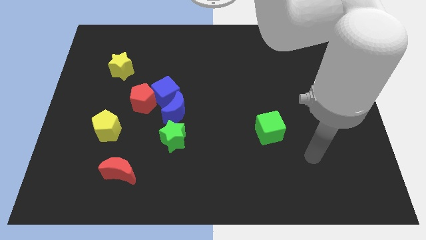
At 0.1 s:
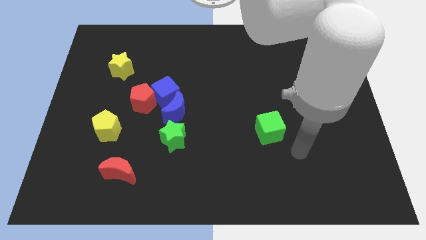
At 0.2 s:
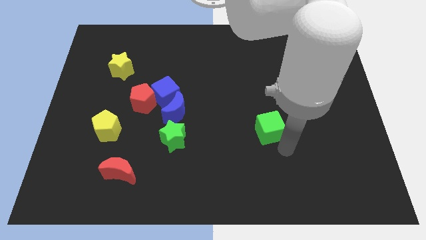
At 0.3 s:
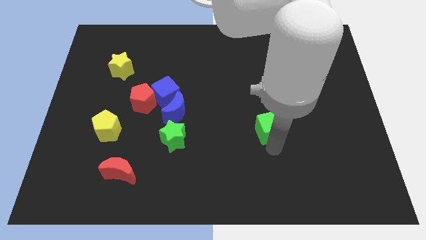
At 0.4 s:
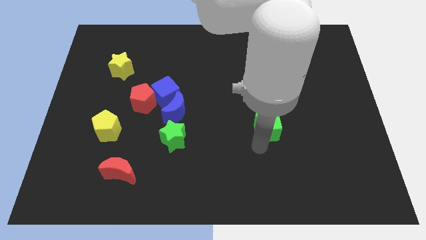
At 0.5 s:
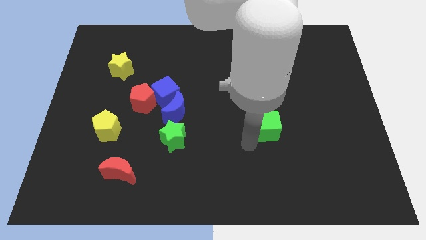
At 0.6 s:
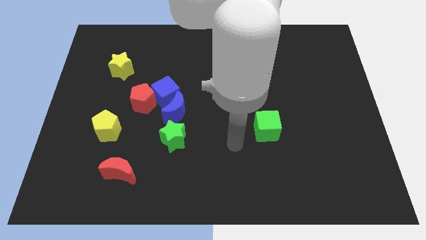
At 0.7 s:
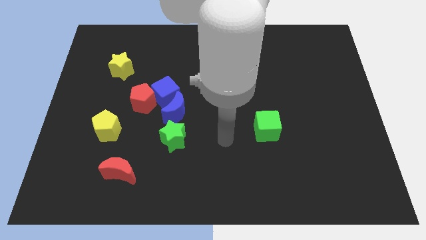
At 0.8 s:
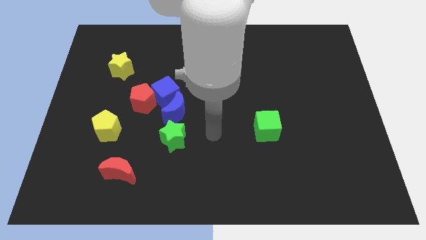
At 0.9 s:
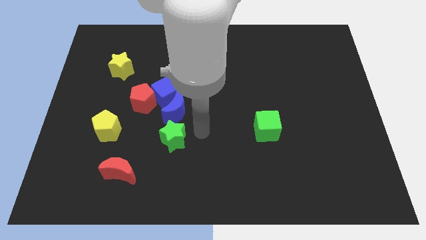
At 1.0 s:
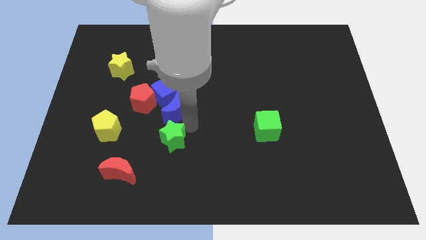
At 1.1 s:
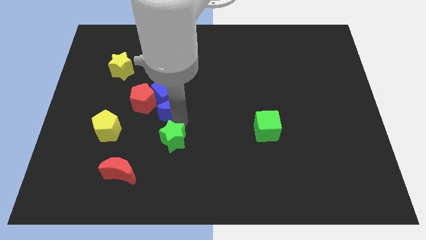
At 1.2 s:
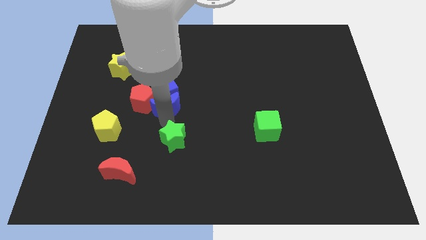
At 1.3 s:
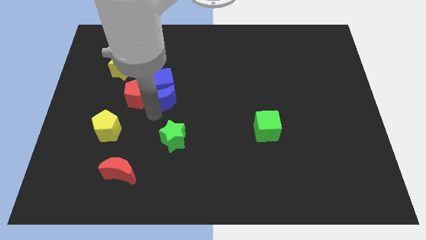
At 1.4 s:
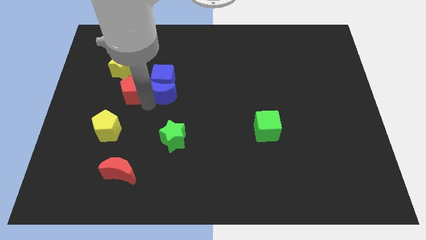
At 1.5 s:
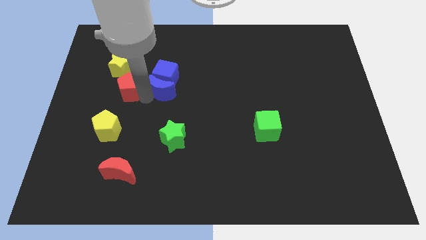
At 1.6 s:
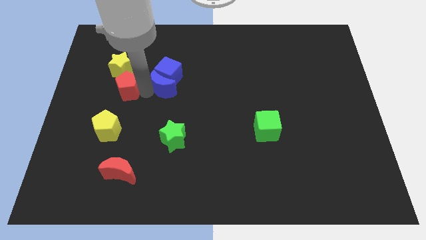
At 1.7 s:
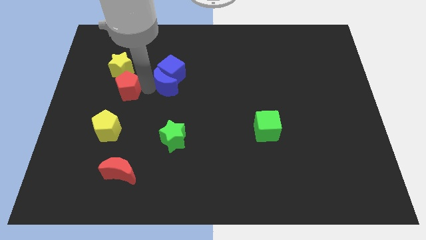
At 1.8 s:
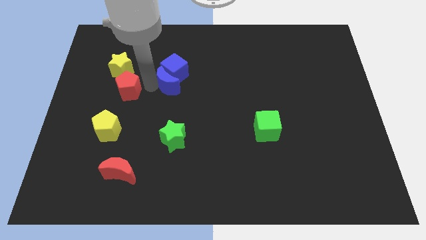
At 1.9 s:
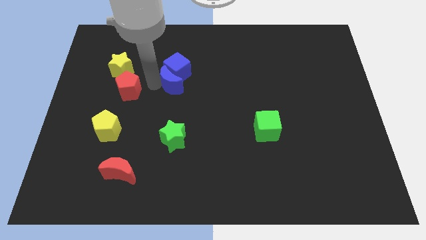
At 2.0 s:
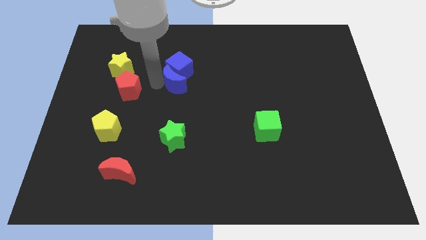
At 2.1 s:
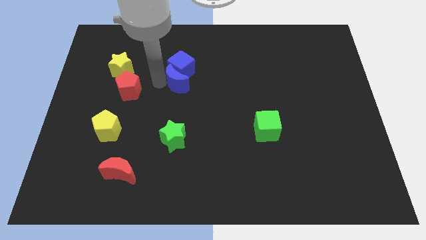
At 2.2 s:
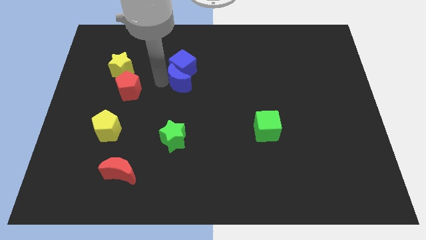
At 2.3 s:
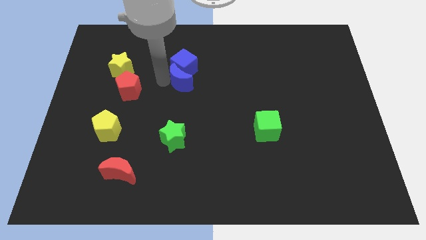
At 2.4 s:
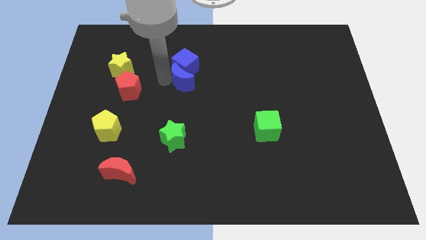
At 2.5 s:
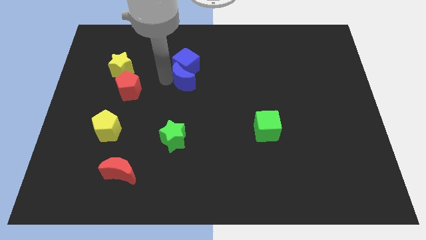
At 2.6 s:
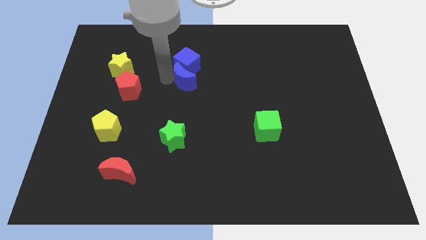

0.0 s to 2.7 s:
pull the blue cube apart from the red pentagon and blue moon

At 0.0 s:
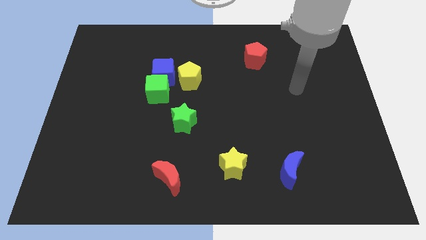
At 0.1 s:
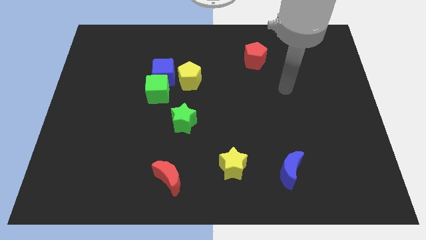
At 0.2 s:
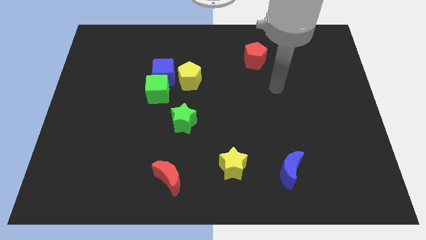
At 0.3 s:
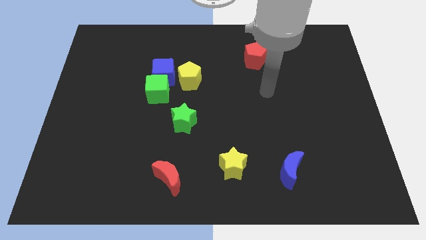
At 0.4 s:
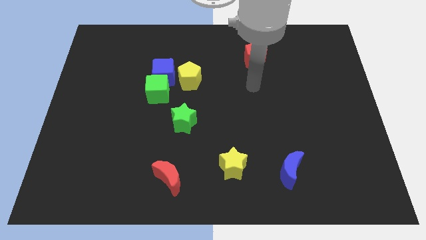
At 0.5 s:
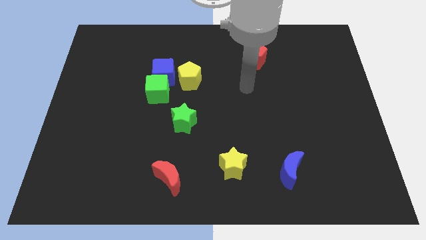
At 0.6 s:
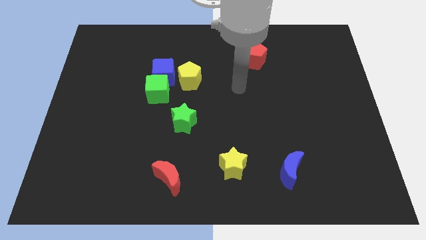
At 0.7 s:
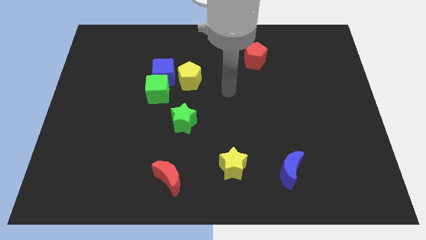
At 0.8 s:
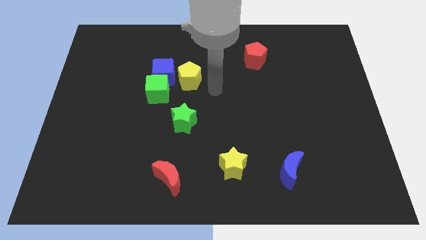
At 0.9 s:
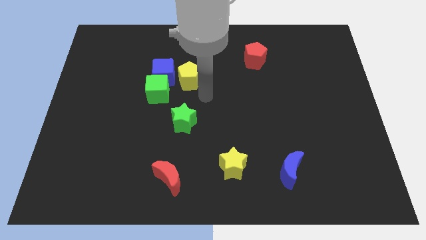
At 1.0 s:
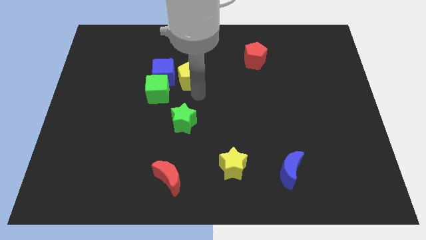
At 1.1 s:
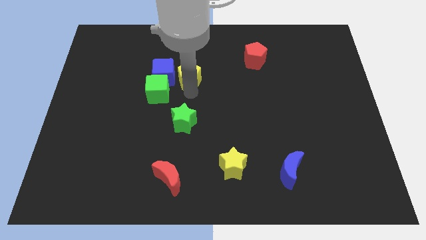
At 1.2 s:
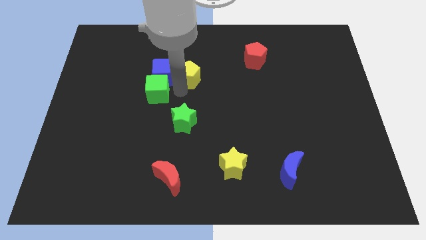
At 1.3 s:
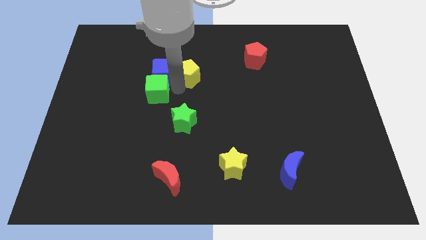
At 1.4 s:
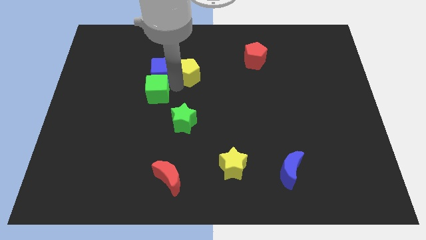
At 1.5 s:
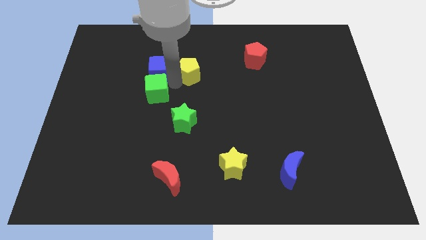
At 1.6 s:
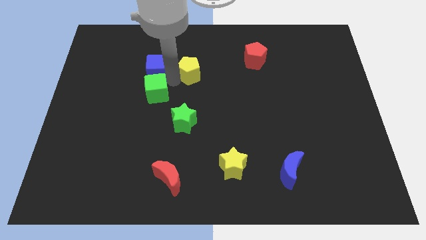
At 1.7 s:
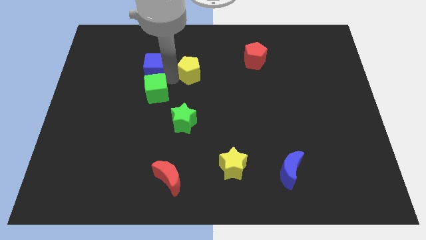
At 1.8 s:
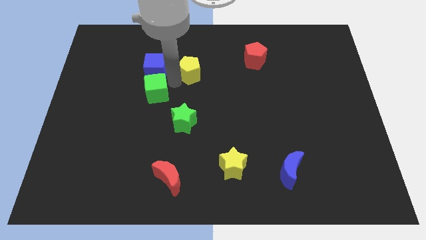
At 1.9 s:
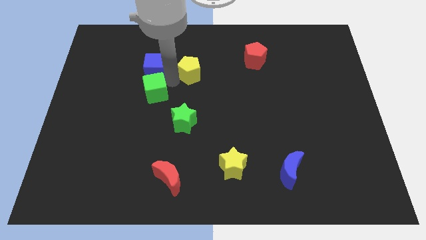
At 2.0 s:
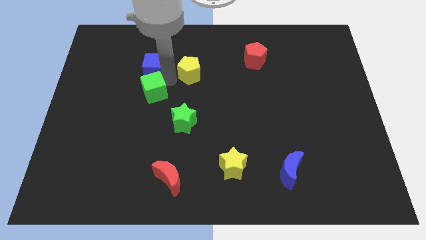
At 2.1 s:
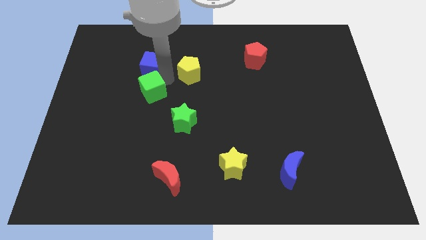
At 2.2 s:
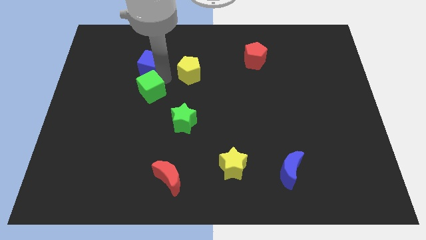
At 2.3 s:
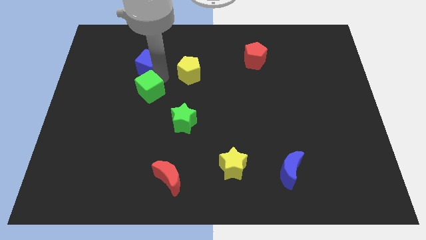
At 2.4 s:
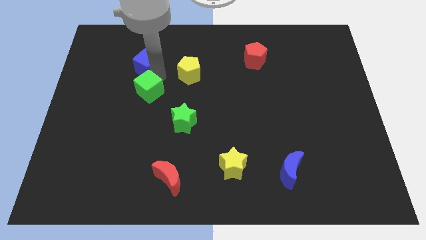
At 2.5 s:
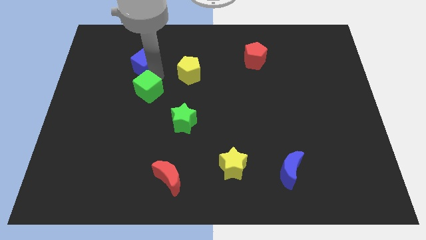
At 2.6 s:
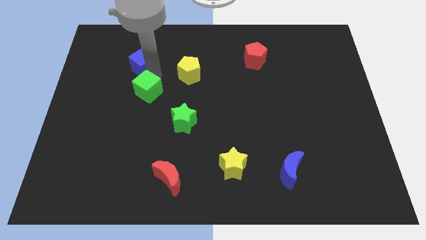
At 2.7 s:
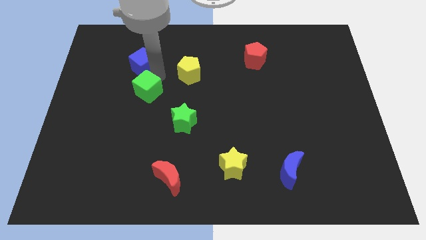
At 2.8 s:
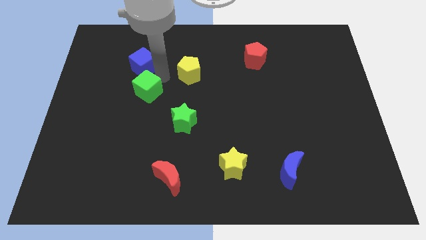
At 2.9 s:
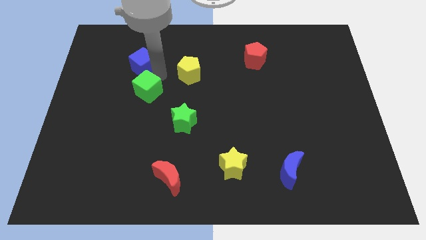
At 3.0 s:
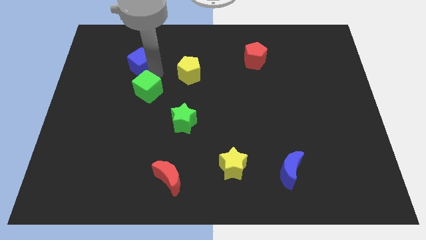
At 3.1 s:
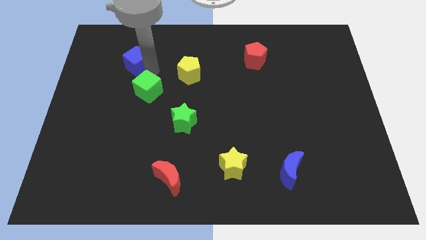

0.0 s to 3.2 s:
pull the blue cube apart from the green cube and yellow pentagon

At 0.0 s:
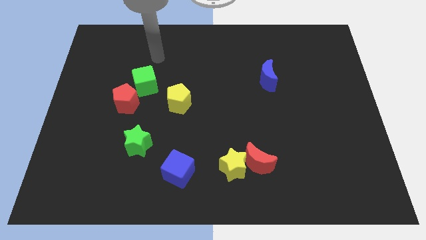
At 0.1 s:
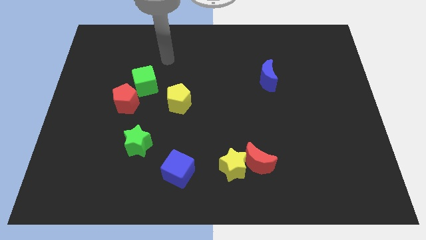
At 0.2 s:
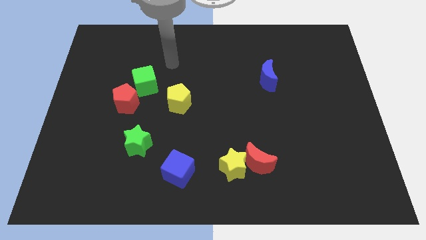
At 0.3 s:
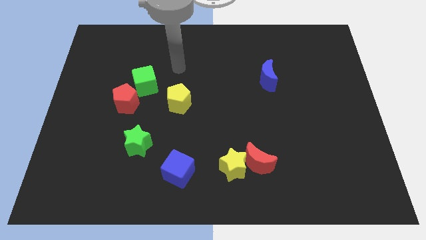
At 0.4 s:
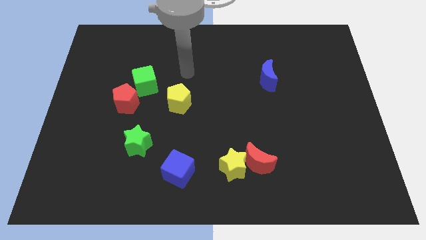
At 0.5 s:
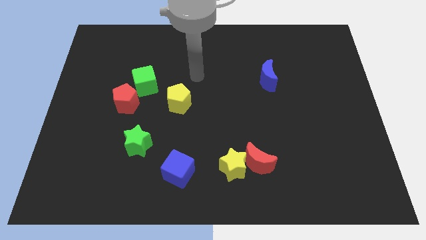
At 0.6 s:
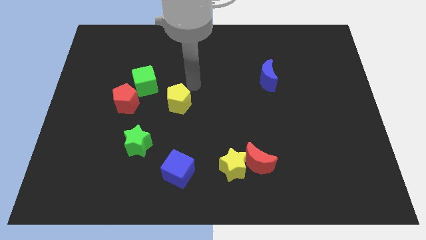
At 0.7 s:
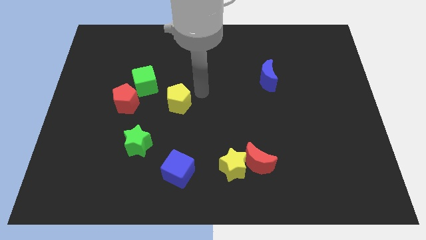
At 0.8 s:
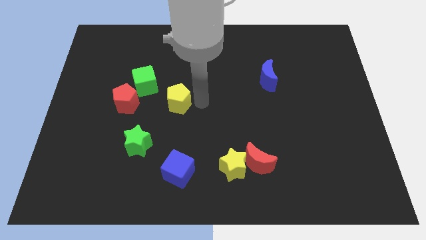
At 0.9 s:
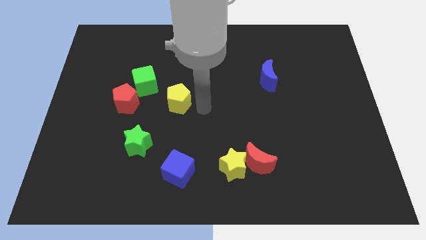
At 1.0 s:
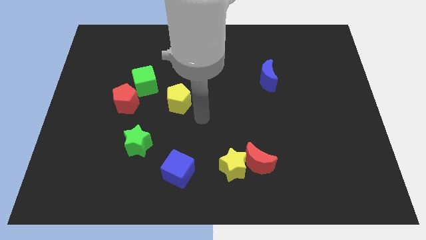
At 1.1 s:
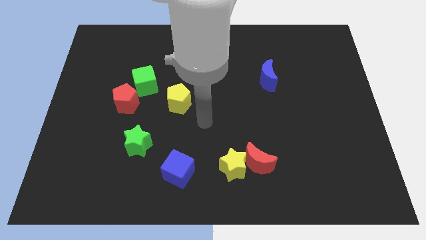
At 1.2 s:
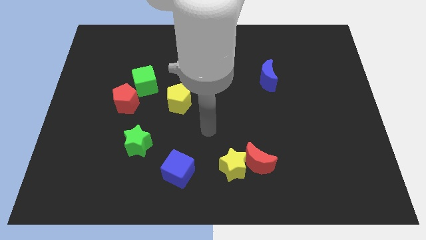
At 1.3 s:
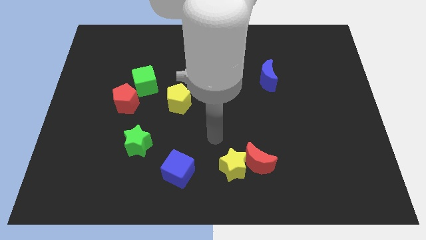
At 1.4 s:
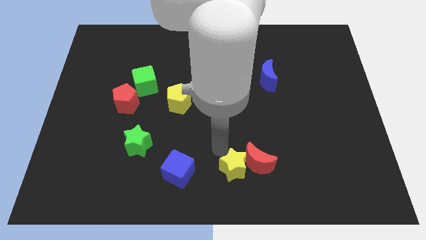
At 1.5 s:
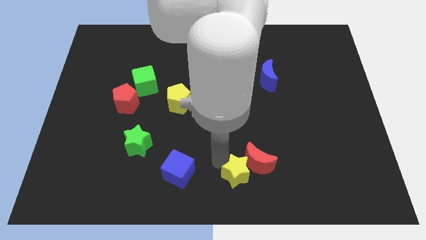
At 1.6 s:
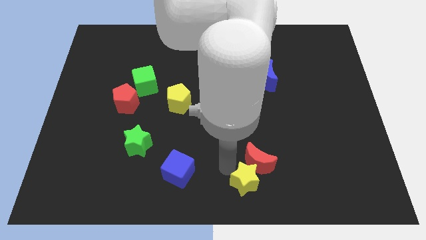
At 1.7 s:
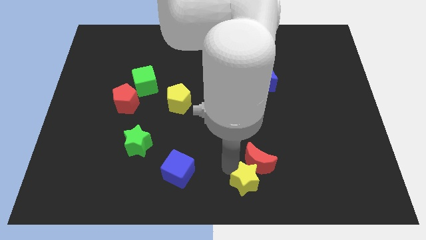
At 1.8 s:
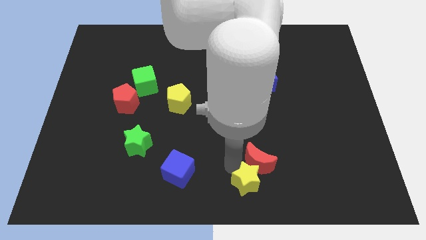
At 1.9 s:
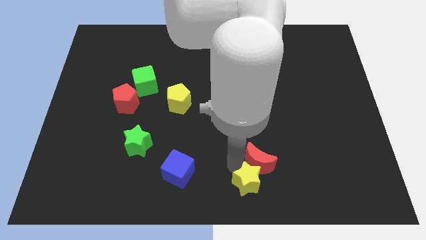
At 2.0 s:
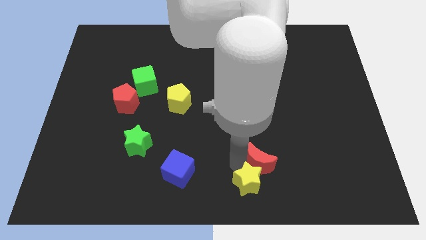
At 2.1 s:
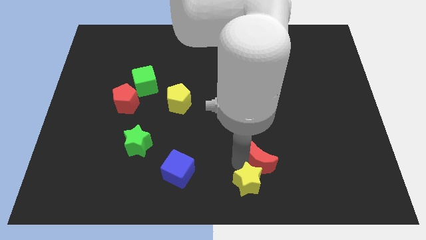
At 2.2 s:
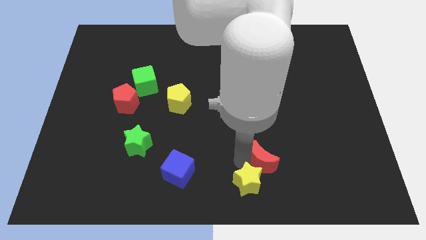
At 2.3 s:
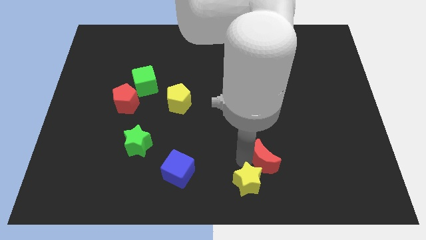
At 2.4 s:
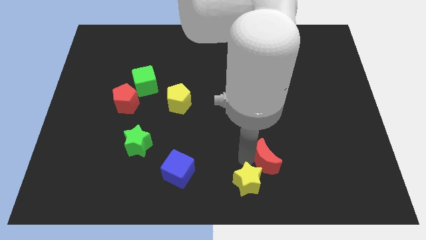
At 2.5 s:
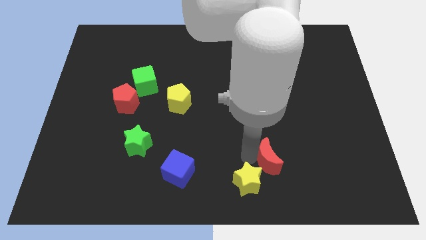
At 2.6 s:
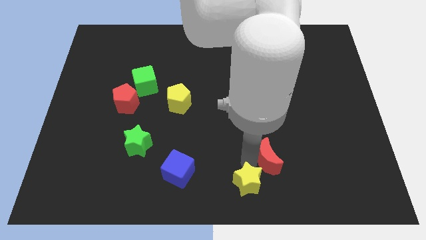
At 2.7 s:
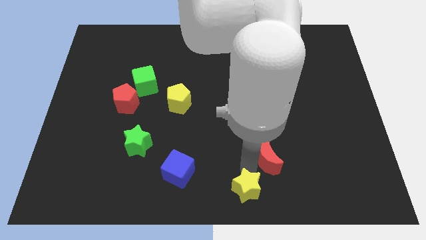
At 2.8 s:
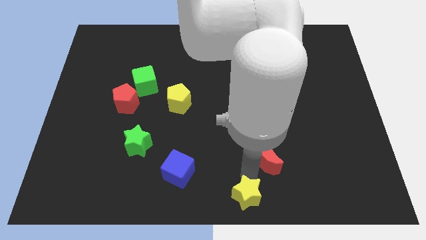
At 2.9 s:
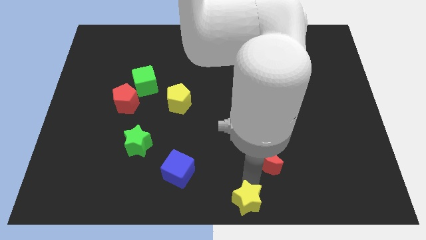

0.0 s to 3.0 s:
move the red moon away from the yellow star

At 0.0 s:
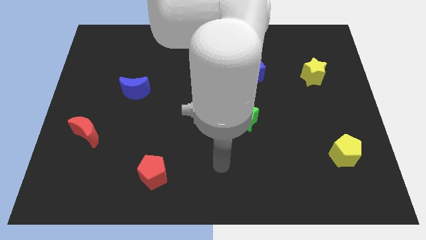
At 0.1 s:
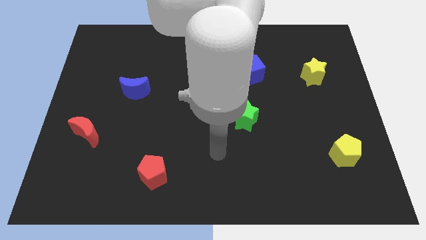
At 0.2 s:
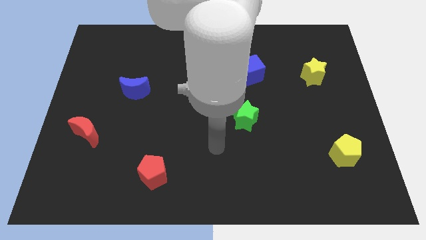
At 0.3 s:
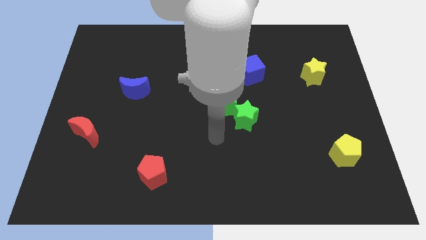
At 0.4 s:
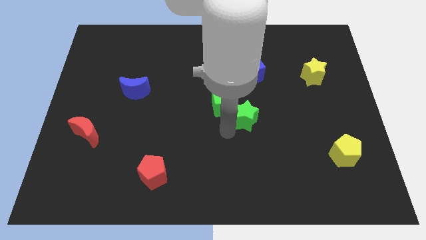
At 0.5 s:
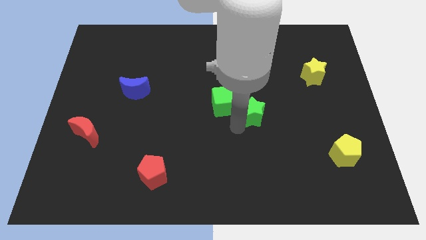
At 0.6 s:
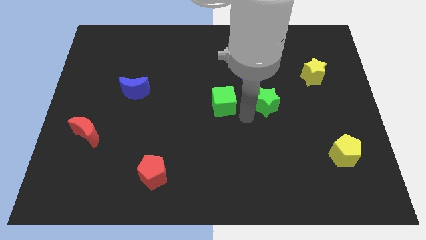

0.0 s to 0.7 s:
move the green cube away from the green star
